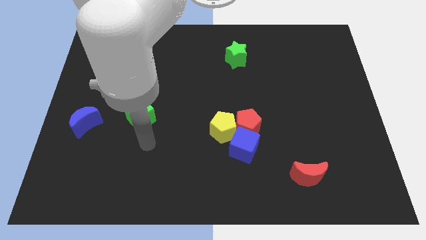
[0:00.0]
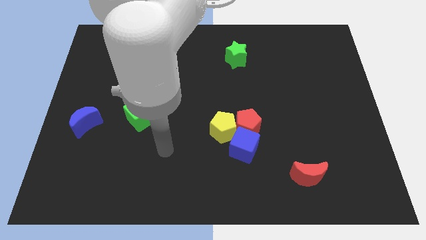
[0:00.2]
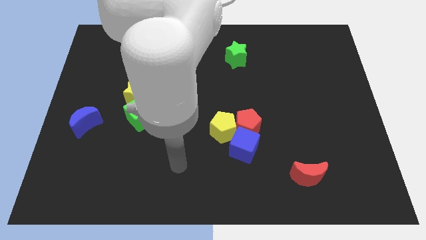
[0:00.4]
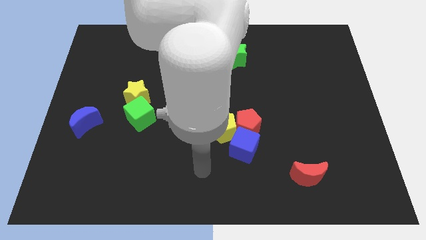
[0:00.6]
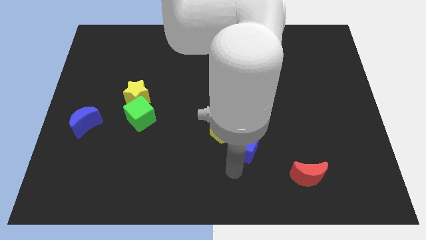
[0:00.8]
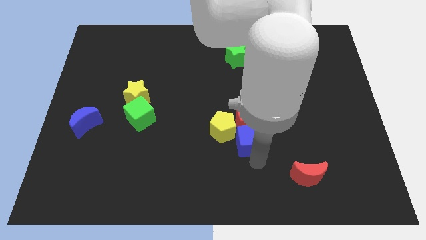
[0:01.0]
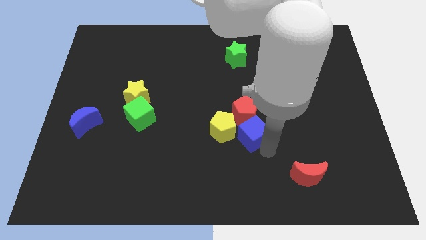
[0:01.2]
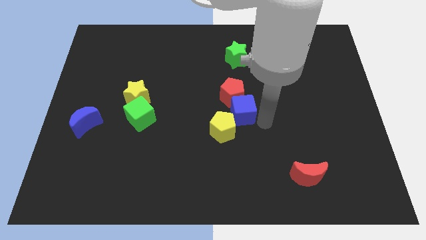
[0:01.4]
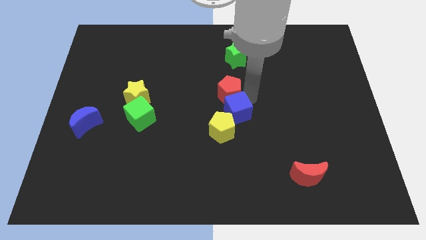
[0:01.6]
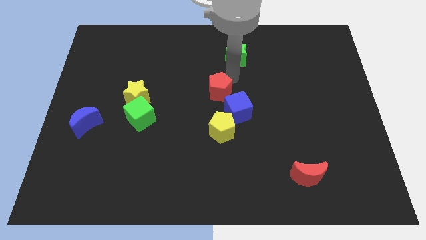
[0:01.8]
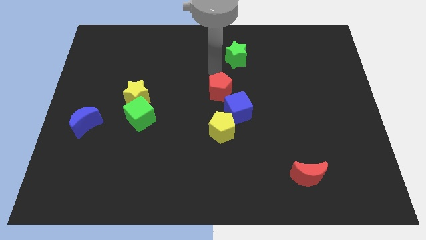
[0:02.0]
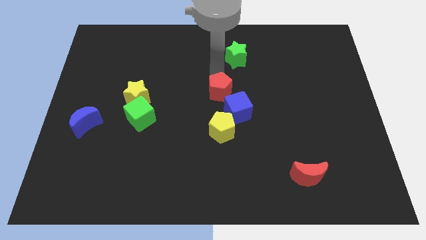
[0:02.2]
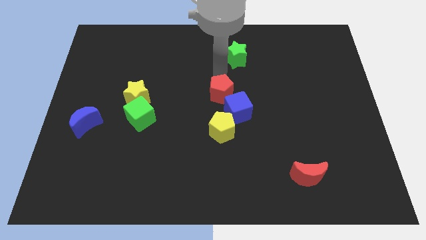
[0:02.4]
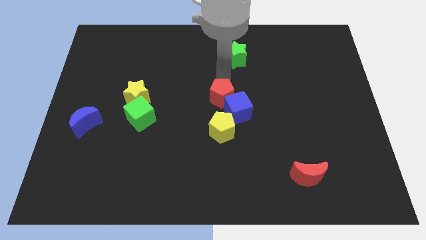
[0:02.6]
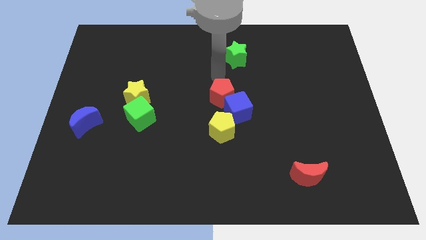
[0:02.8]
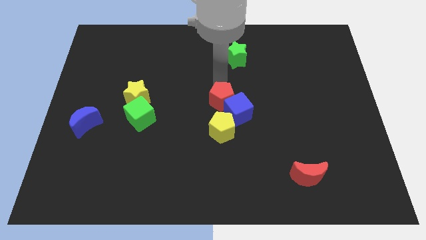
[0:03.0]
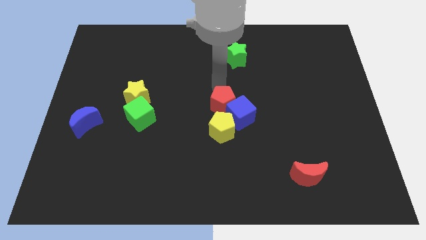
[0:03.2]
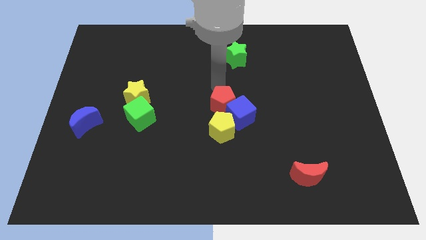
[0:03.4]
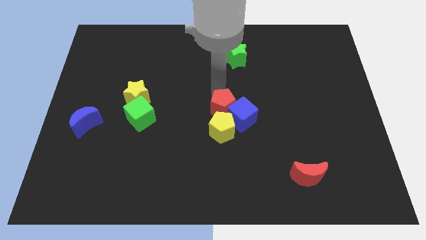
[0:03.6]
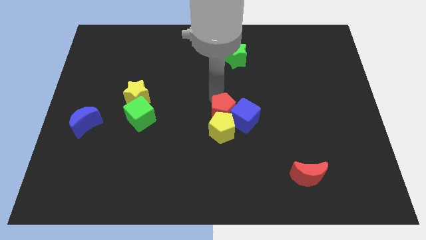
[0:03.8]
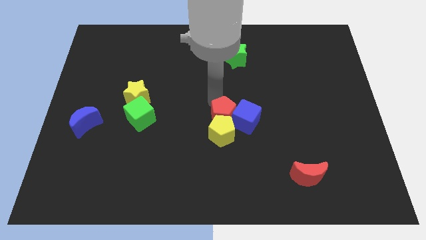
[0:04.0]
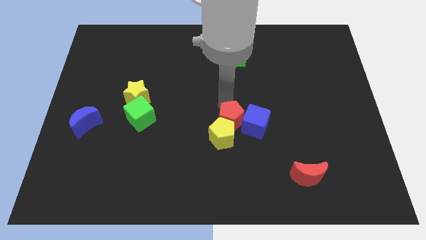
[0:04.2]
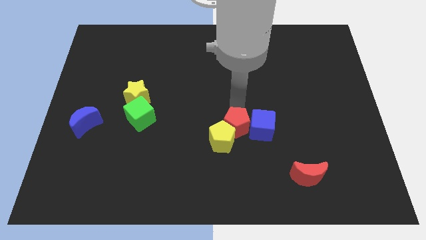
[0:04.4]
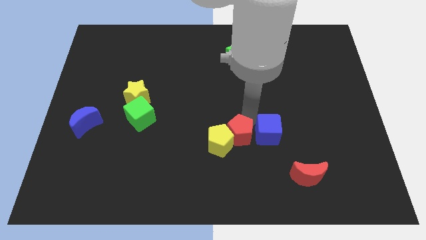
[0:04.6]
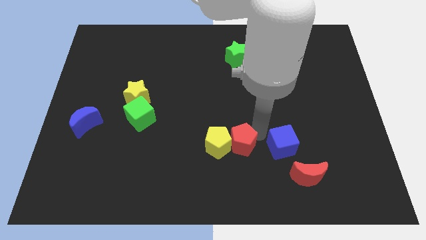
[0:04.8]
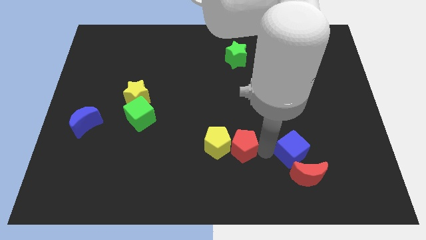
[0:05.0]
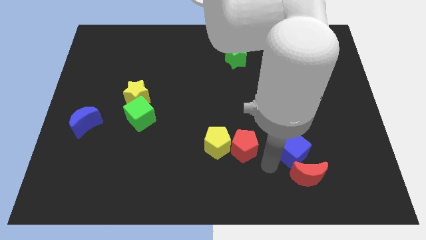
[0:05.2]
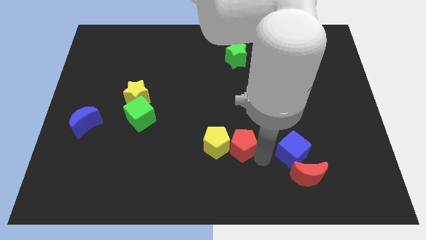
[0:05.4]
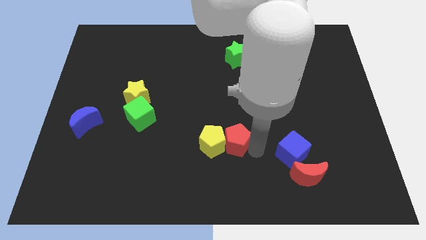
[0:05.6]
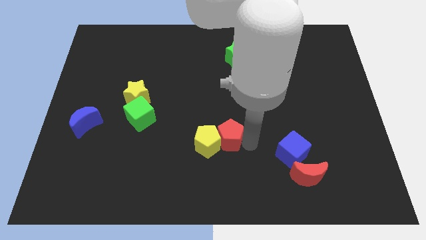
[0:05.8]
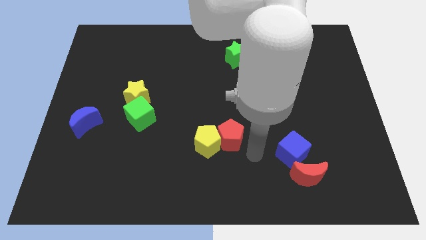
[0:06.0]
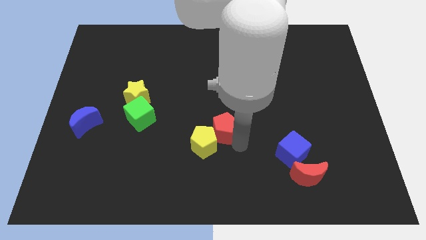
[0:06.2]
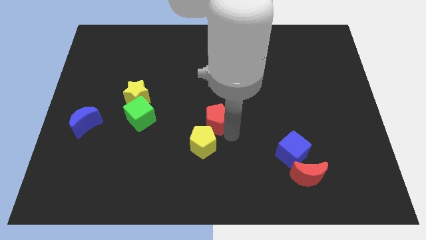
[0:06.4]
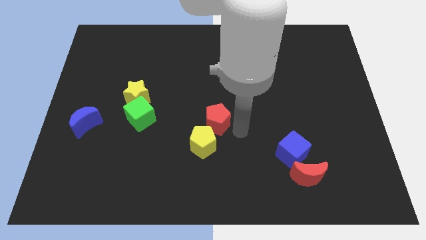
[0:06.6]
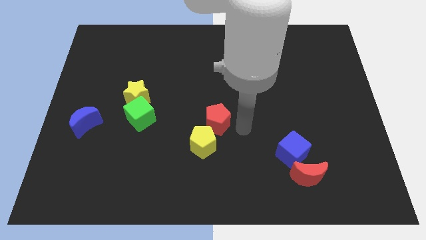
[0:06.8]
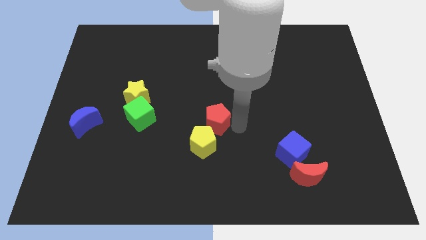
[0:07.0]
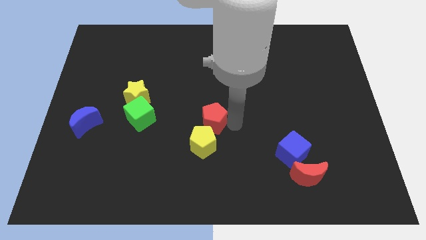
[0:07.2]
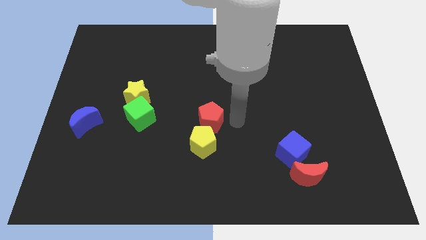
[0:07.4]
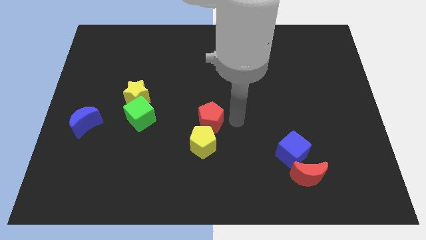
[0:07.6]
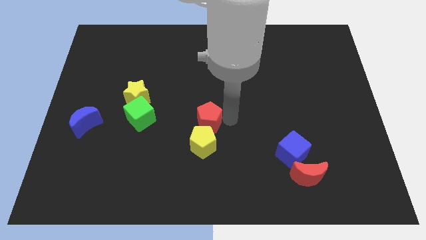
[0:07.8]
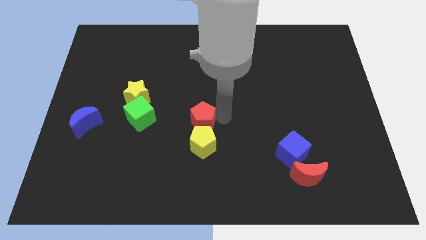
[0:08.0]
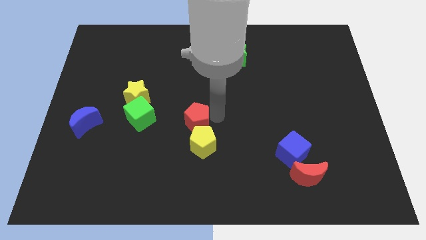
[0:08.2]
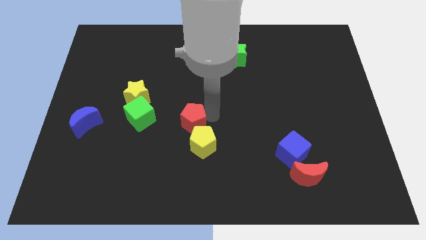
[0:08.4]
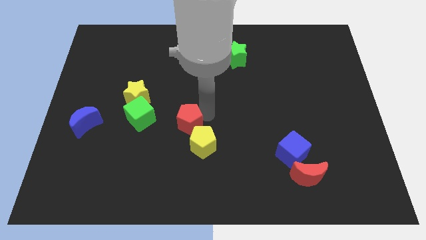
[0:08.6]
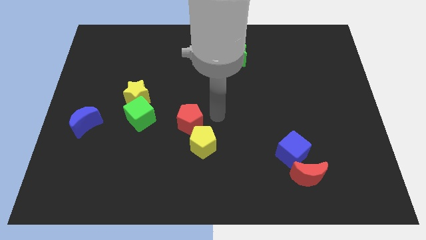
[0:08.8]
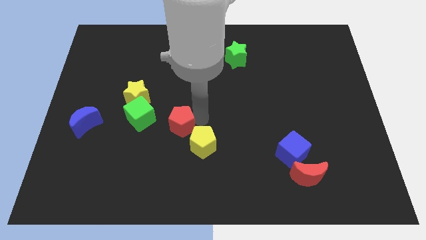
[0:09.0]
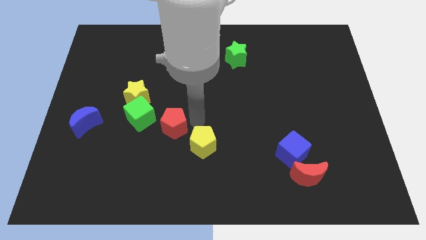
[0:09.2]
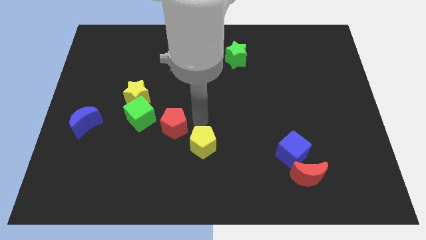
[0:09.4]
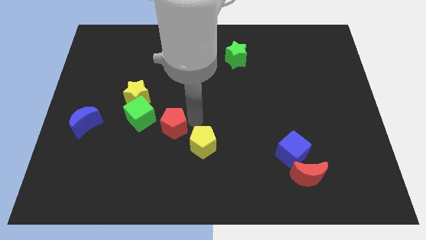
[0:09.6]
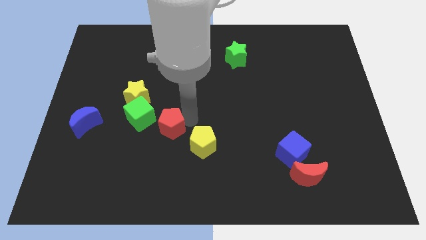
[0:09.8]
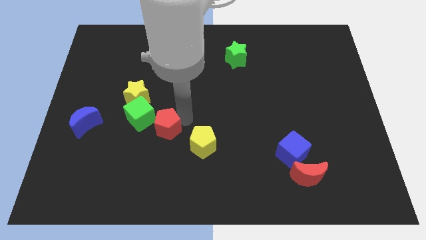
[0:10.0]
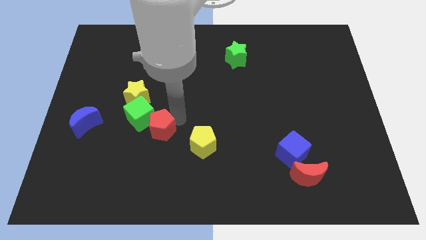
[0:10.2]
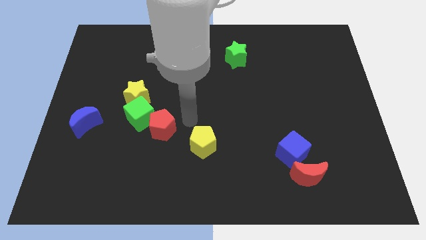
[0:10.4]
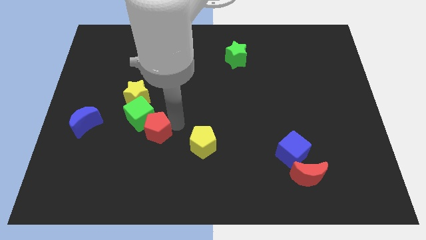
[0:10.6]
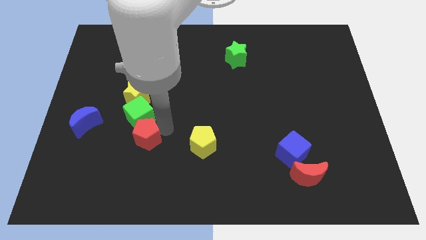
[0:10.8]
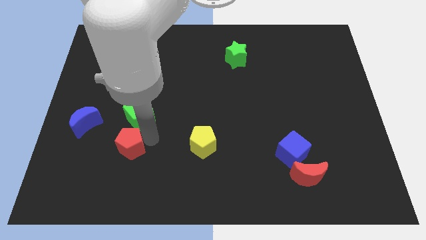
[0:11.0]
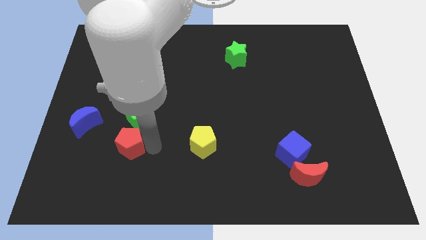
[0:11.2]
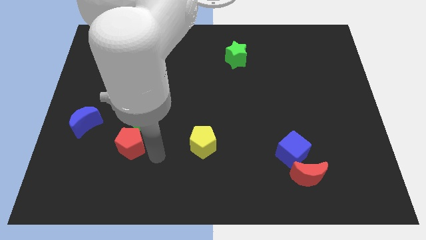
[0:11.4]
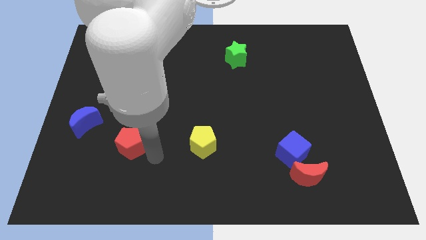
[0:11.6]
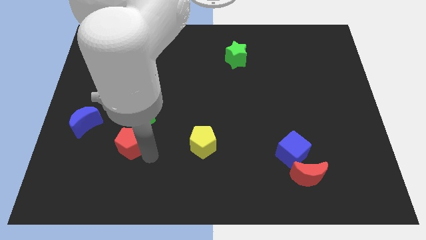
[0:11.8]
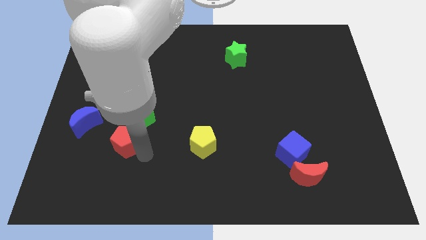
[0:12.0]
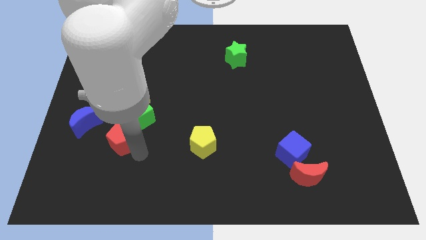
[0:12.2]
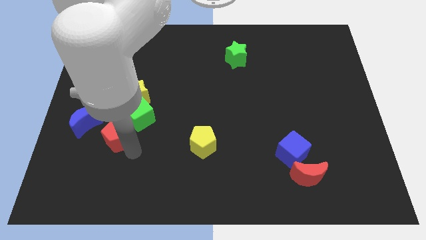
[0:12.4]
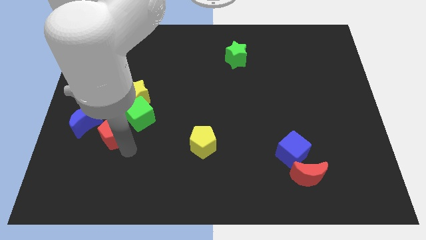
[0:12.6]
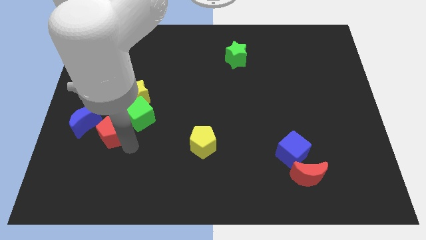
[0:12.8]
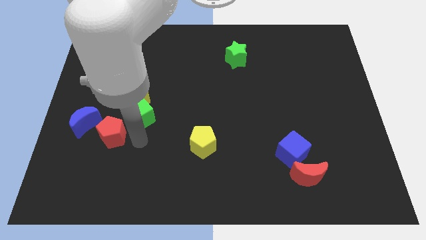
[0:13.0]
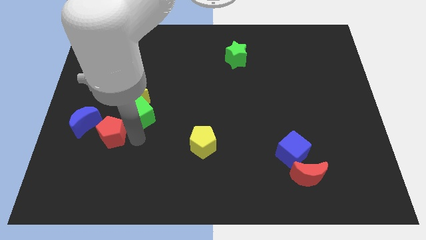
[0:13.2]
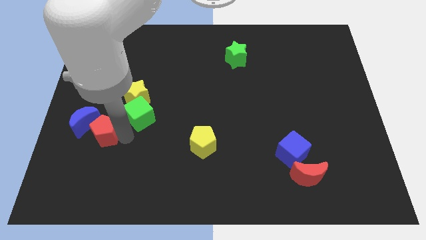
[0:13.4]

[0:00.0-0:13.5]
push the red pentagon next to the blue moon
